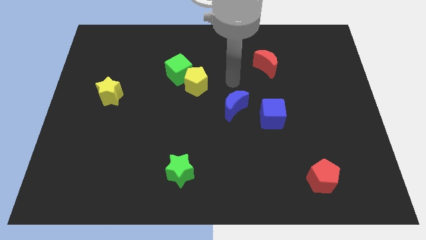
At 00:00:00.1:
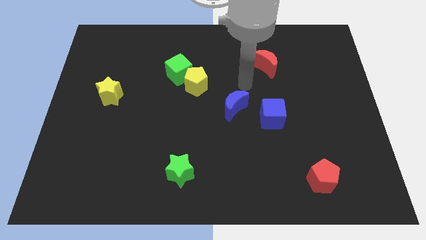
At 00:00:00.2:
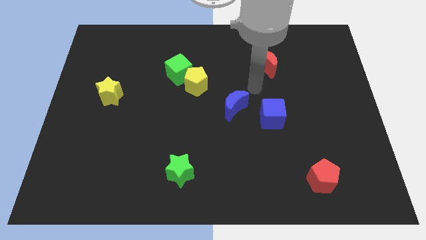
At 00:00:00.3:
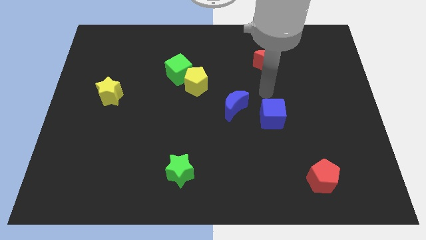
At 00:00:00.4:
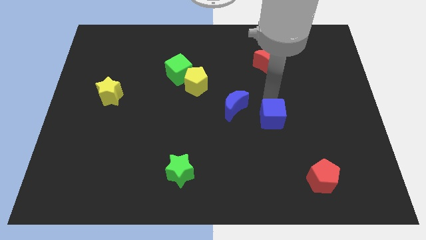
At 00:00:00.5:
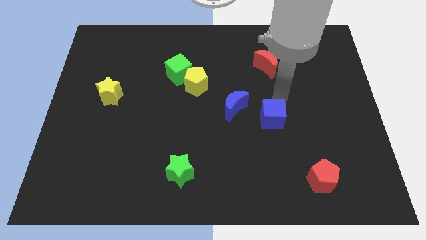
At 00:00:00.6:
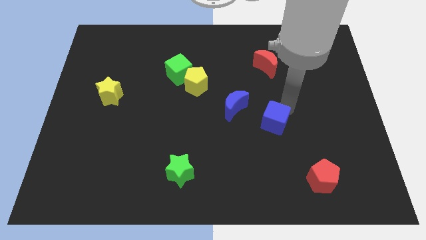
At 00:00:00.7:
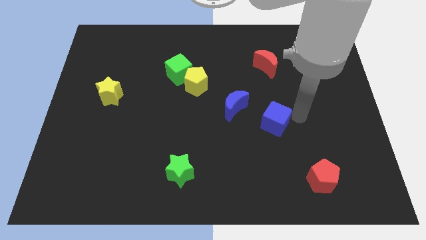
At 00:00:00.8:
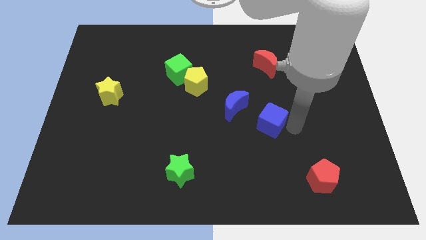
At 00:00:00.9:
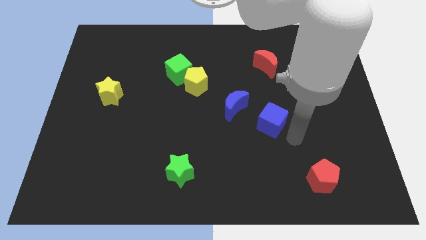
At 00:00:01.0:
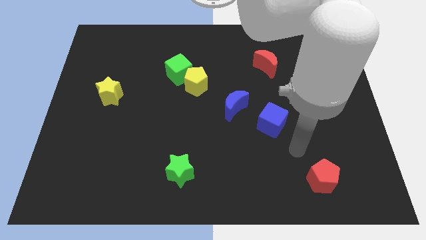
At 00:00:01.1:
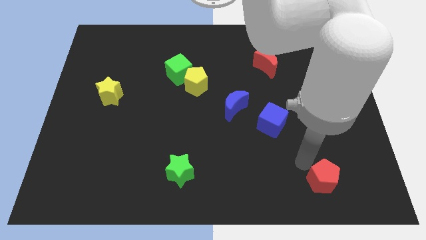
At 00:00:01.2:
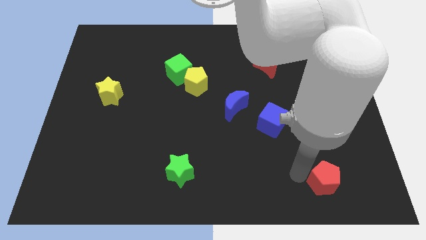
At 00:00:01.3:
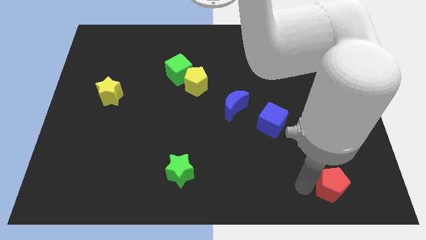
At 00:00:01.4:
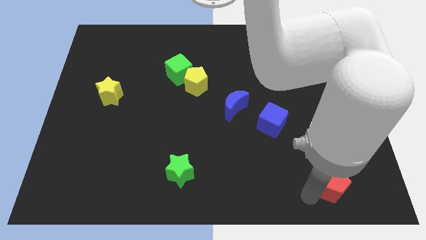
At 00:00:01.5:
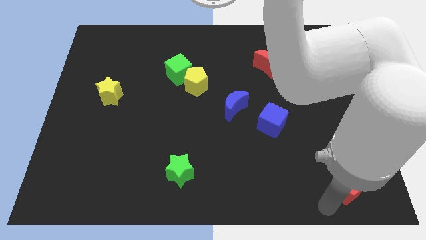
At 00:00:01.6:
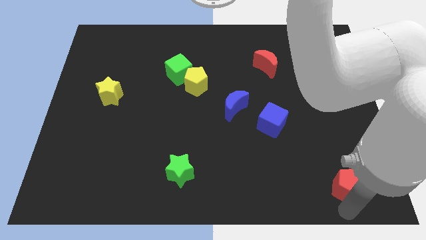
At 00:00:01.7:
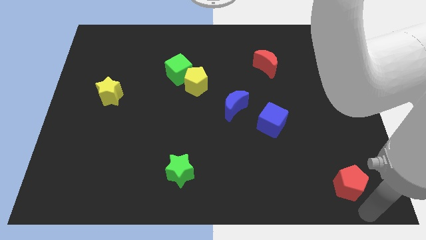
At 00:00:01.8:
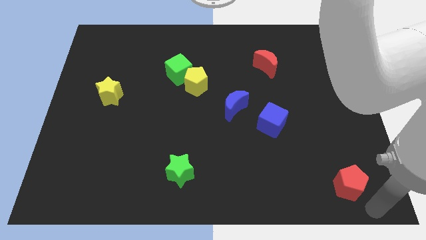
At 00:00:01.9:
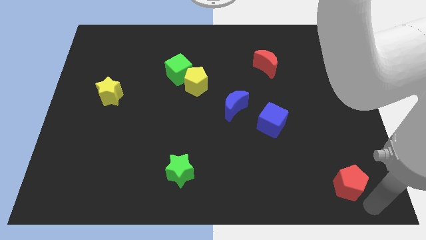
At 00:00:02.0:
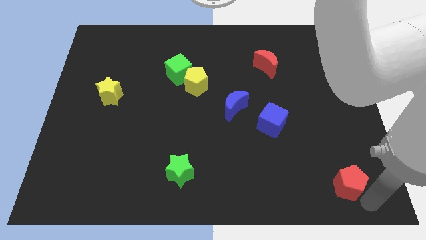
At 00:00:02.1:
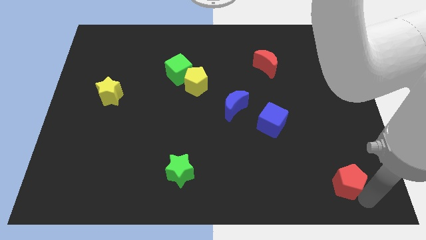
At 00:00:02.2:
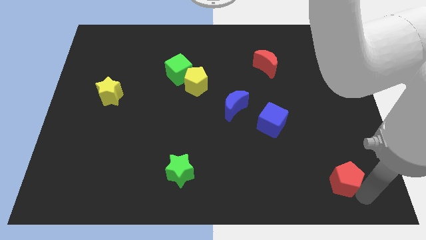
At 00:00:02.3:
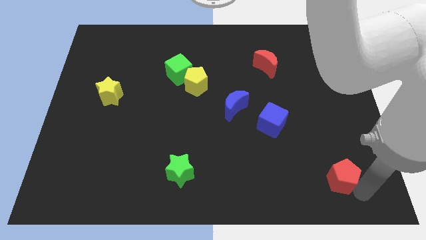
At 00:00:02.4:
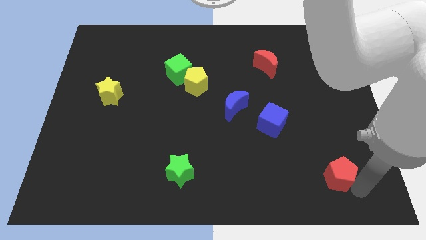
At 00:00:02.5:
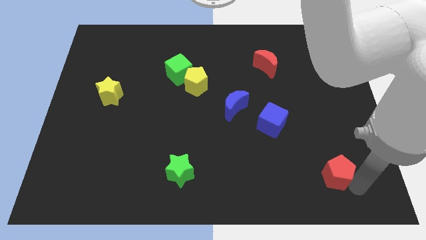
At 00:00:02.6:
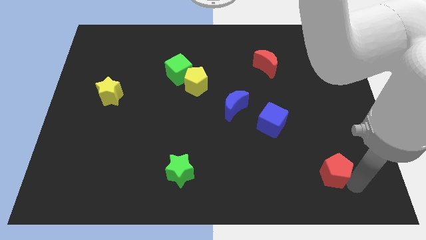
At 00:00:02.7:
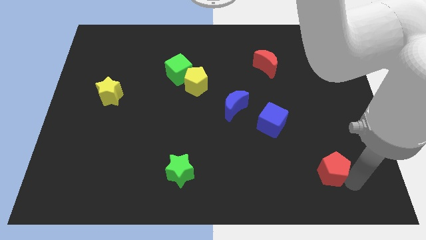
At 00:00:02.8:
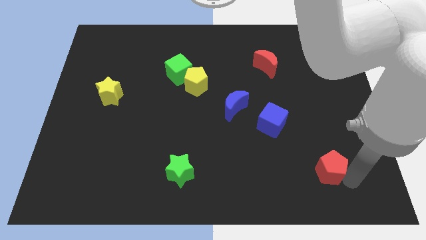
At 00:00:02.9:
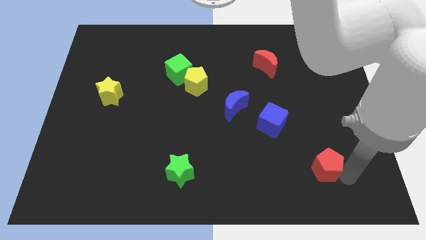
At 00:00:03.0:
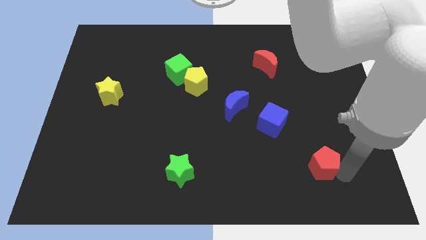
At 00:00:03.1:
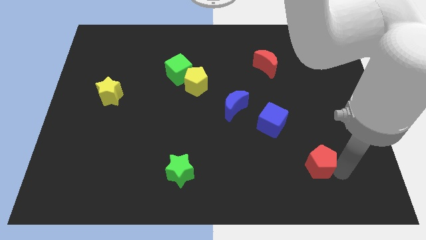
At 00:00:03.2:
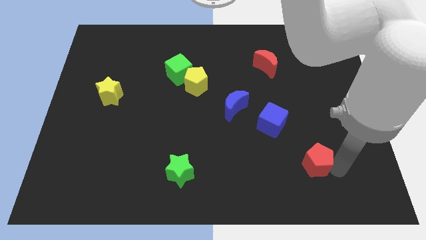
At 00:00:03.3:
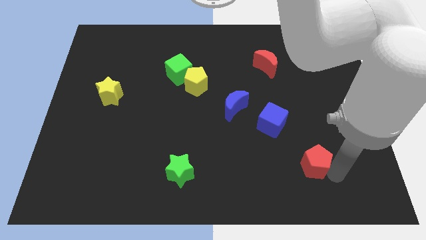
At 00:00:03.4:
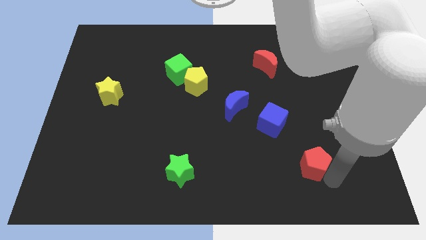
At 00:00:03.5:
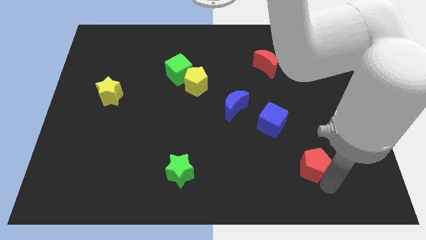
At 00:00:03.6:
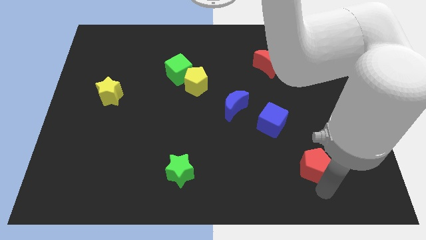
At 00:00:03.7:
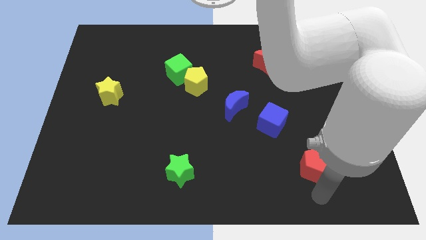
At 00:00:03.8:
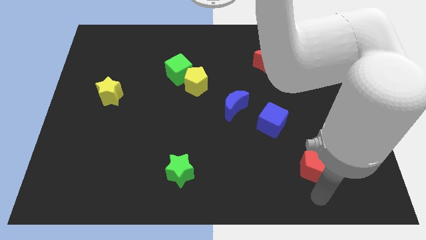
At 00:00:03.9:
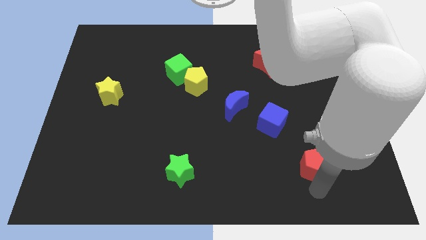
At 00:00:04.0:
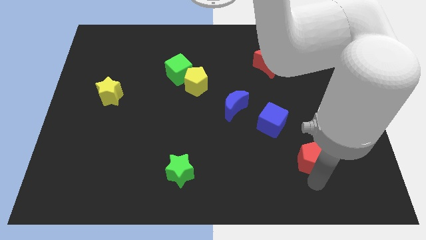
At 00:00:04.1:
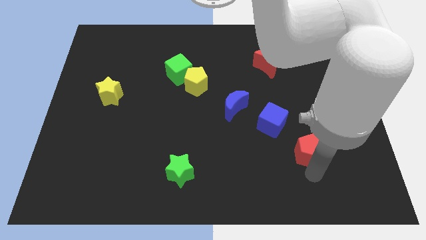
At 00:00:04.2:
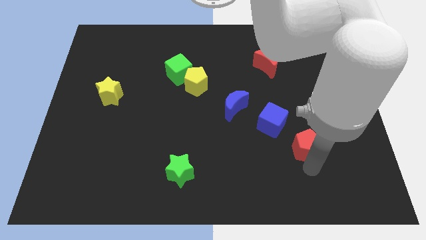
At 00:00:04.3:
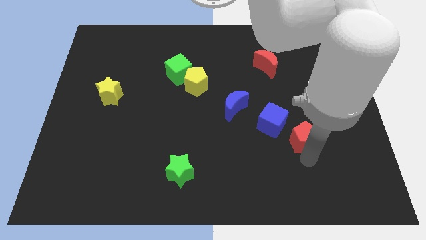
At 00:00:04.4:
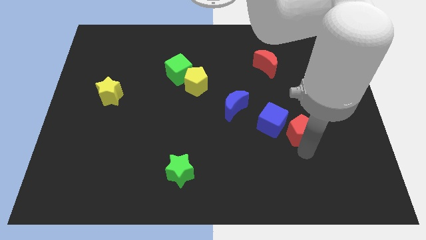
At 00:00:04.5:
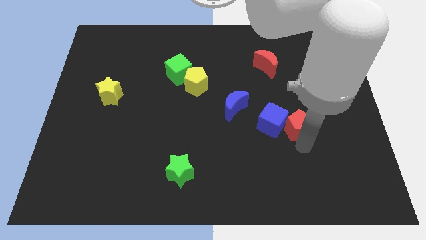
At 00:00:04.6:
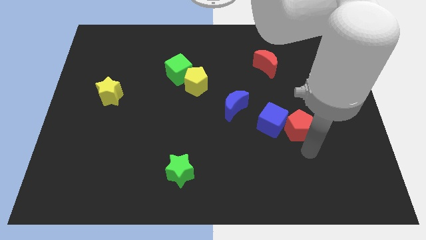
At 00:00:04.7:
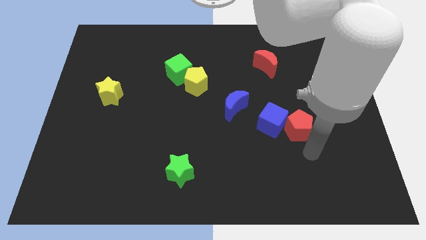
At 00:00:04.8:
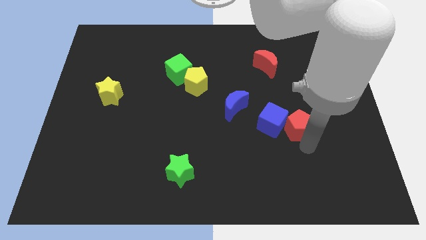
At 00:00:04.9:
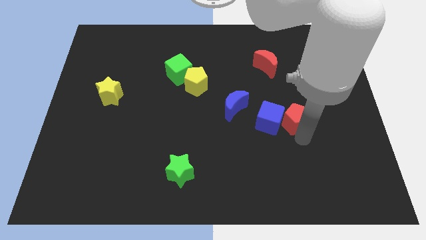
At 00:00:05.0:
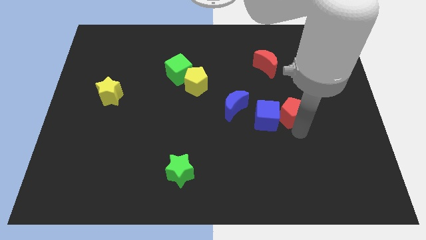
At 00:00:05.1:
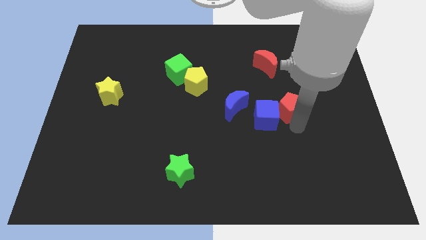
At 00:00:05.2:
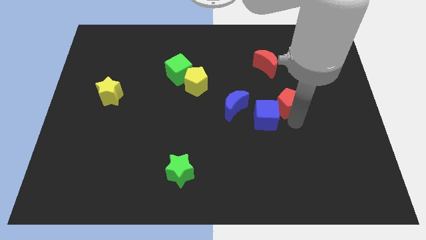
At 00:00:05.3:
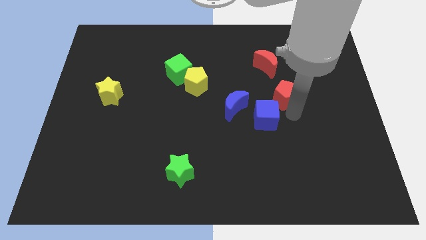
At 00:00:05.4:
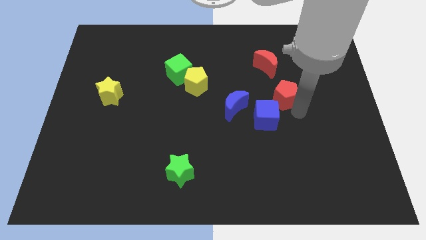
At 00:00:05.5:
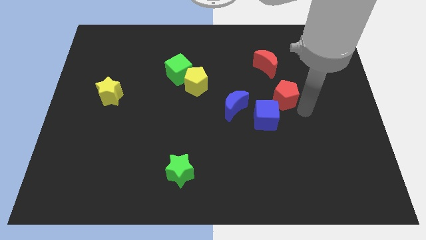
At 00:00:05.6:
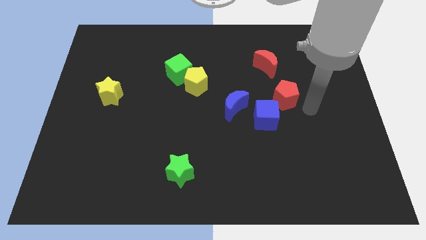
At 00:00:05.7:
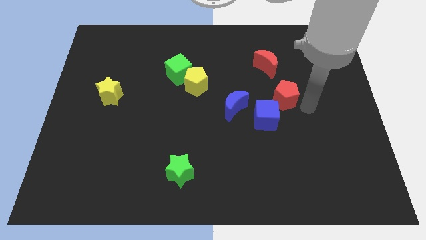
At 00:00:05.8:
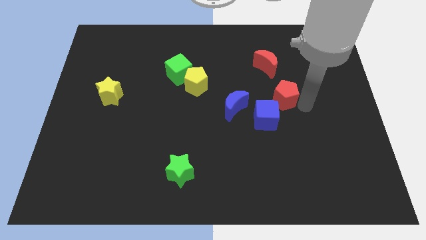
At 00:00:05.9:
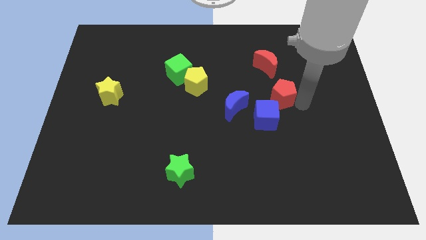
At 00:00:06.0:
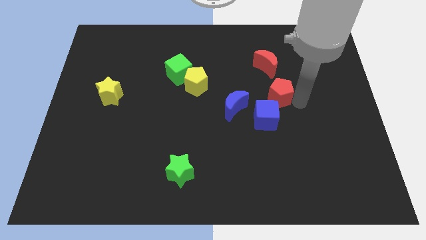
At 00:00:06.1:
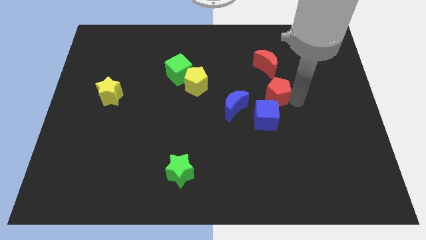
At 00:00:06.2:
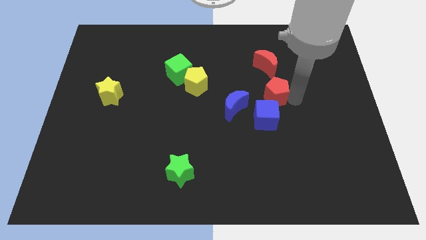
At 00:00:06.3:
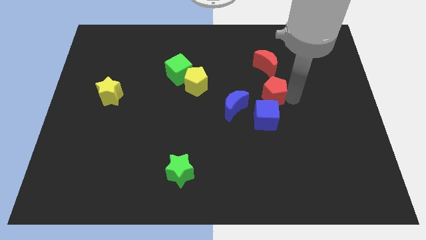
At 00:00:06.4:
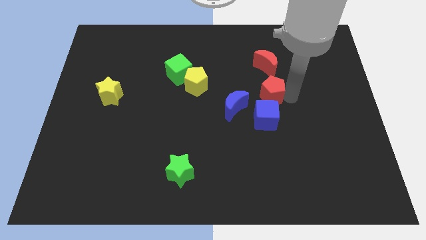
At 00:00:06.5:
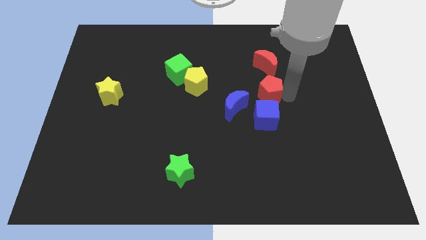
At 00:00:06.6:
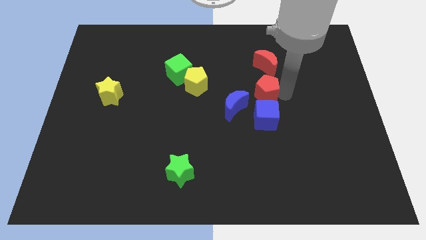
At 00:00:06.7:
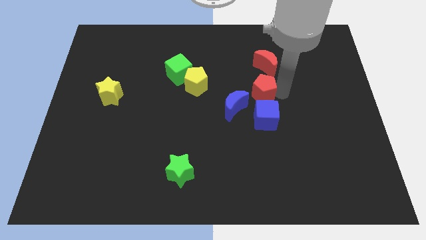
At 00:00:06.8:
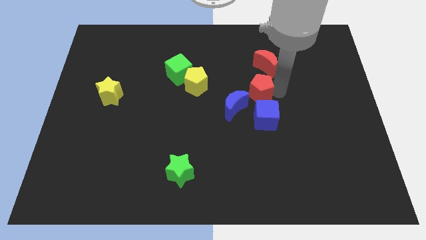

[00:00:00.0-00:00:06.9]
slide the red pentagon to the right of the yellow pentagon
